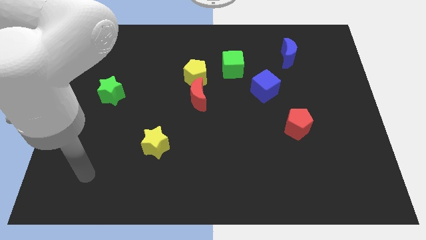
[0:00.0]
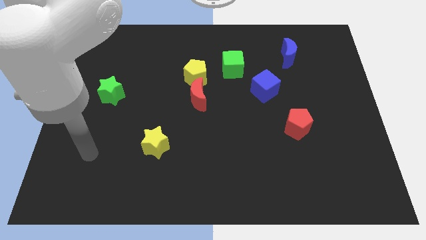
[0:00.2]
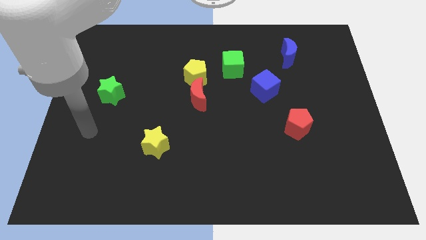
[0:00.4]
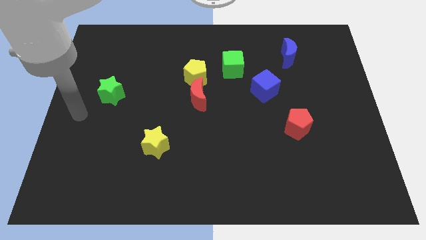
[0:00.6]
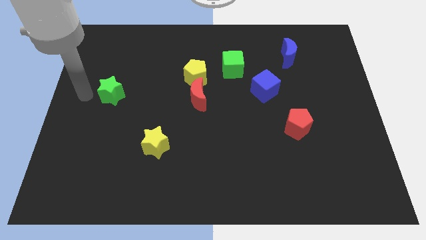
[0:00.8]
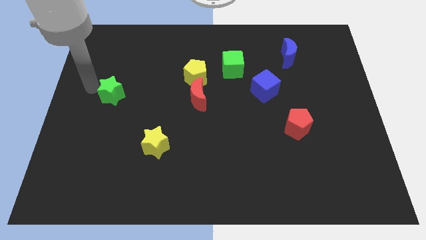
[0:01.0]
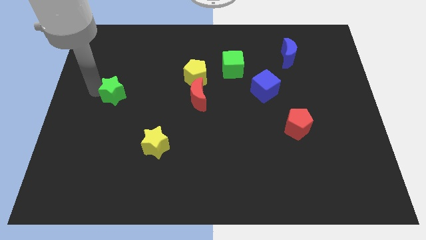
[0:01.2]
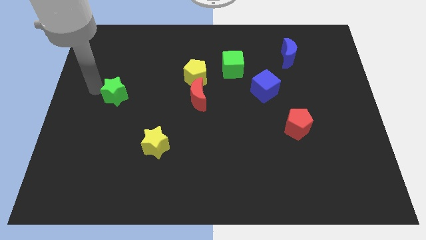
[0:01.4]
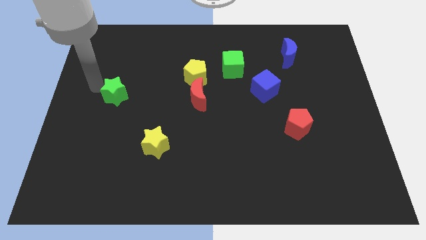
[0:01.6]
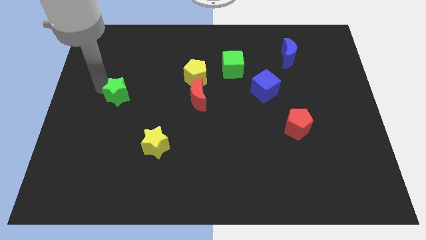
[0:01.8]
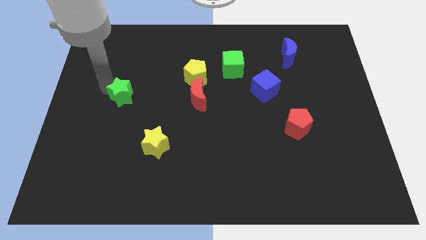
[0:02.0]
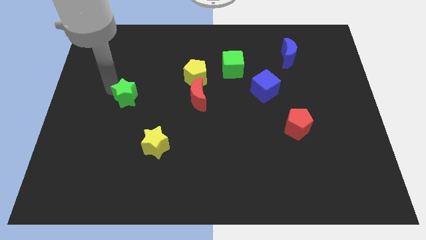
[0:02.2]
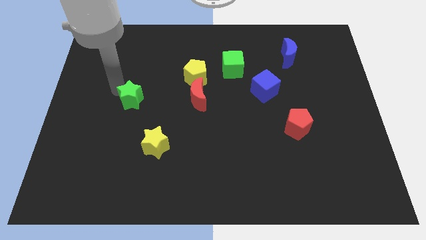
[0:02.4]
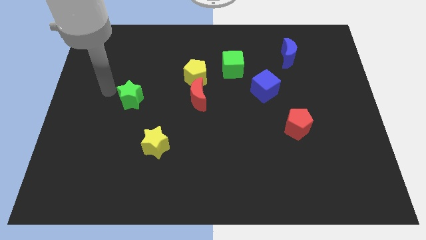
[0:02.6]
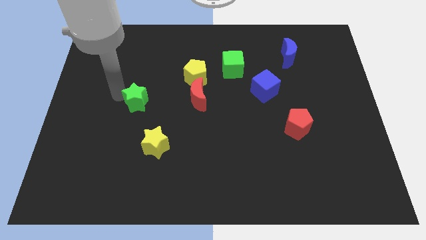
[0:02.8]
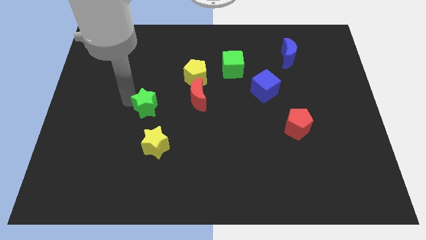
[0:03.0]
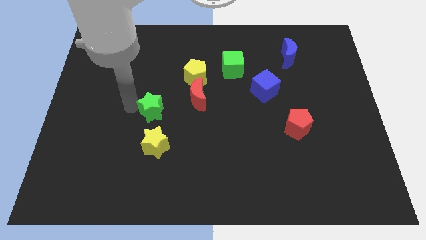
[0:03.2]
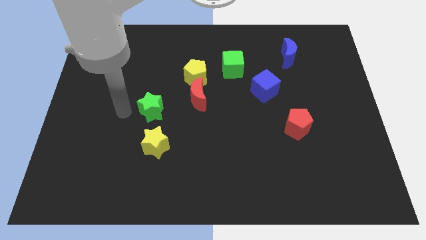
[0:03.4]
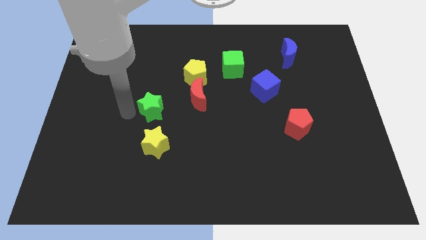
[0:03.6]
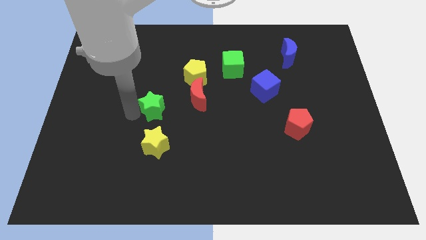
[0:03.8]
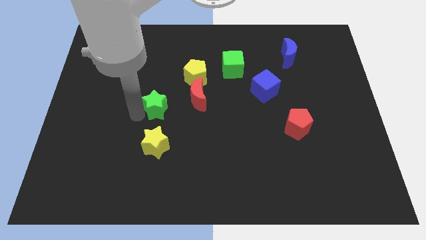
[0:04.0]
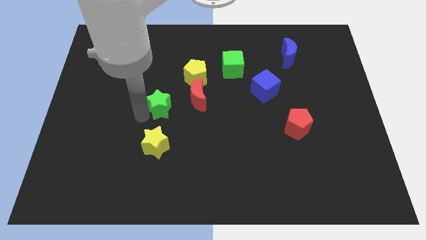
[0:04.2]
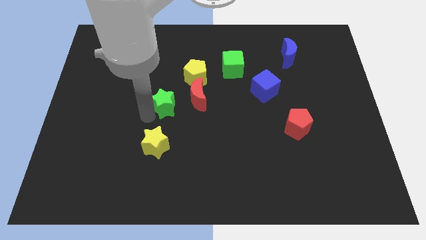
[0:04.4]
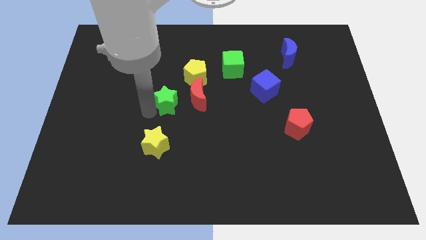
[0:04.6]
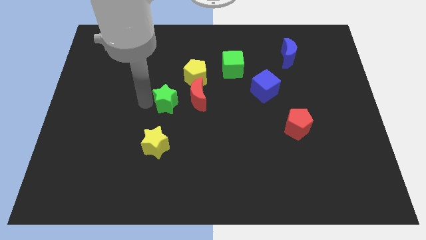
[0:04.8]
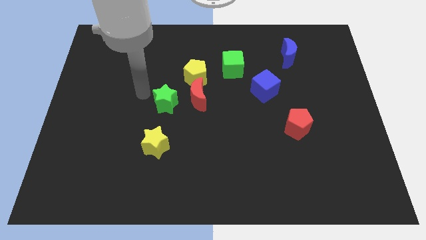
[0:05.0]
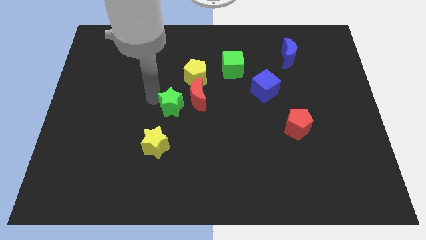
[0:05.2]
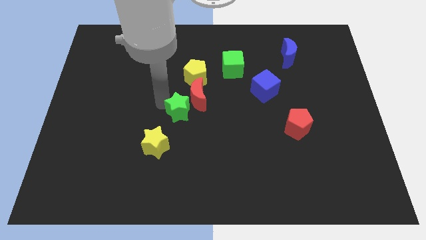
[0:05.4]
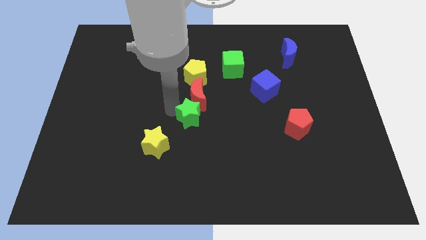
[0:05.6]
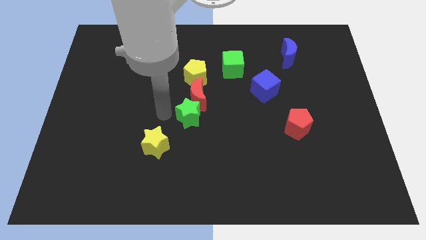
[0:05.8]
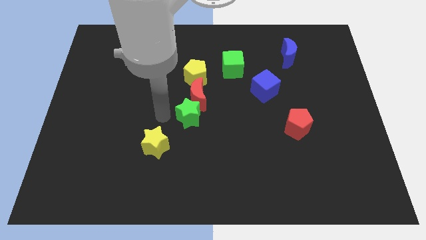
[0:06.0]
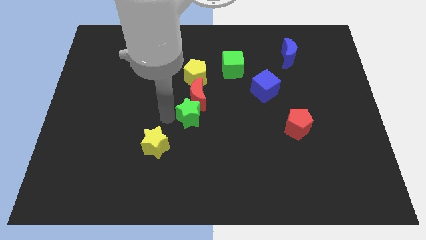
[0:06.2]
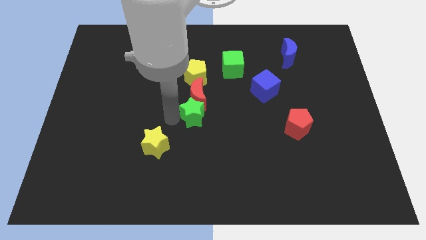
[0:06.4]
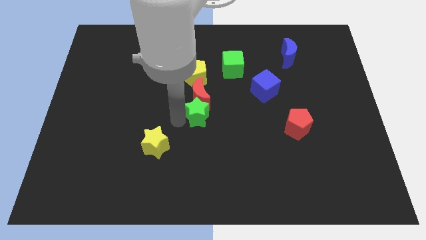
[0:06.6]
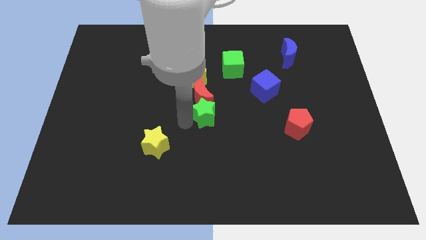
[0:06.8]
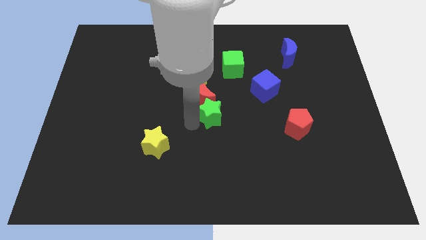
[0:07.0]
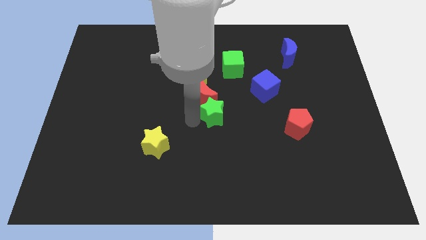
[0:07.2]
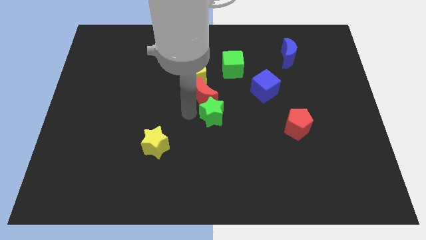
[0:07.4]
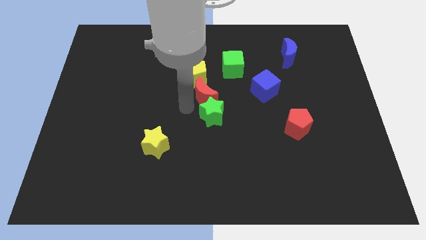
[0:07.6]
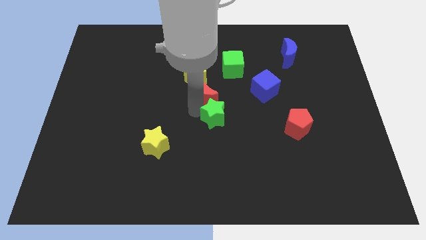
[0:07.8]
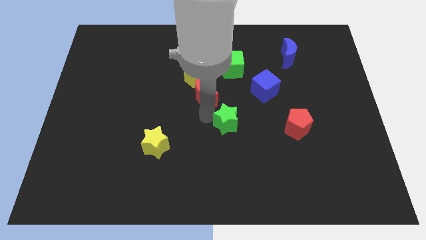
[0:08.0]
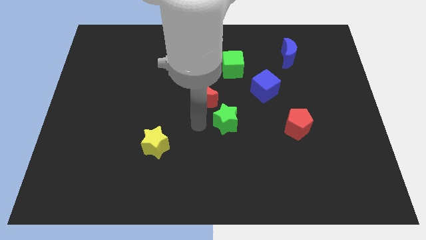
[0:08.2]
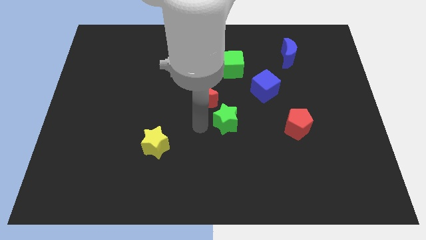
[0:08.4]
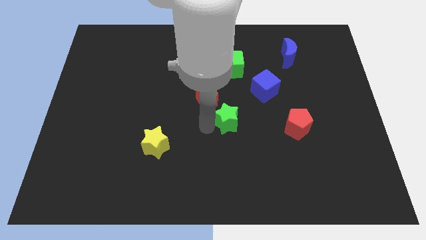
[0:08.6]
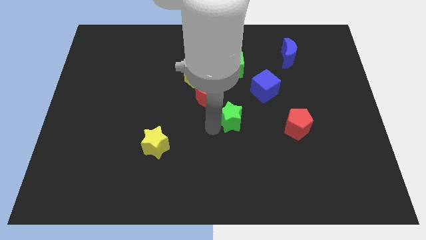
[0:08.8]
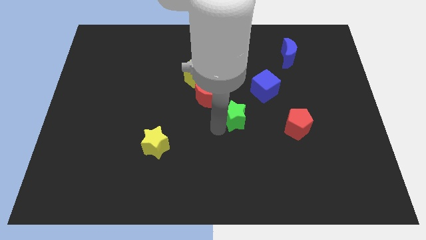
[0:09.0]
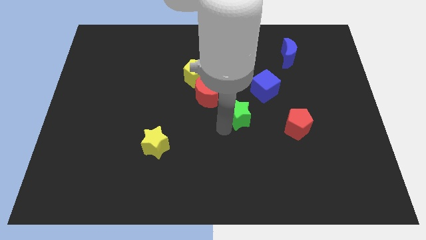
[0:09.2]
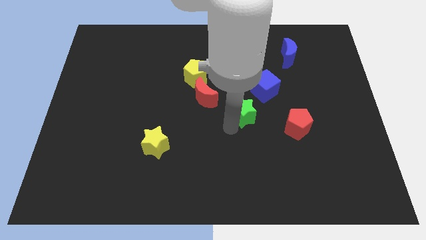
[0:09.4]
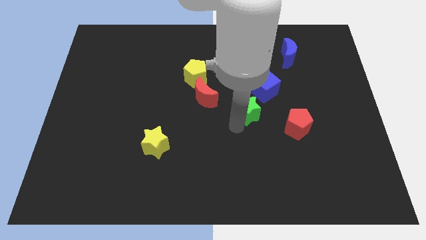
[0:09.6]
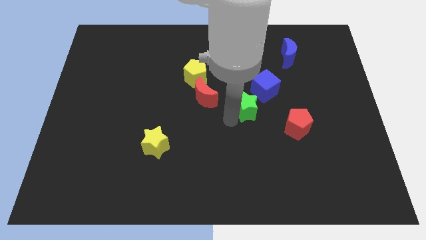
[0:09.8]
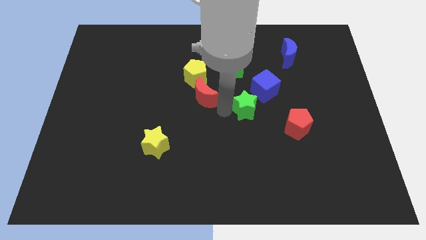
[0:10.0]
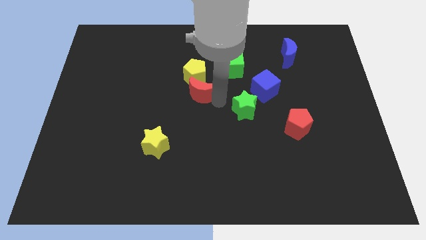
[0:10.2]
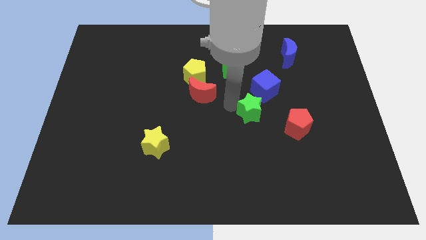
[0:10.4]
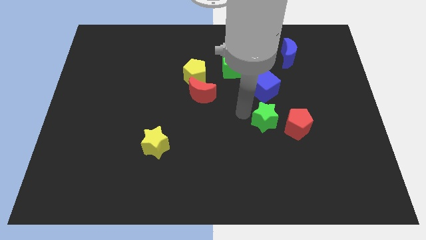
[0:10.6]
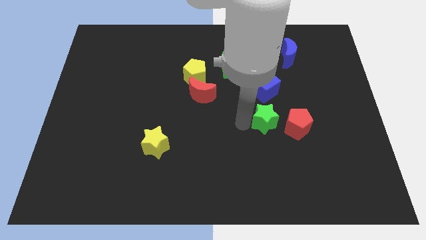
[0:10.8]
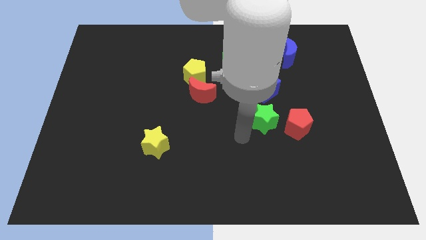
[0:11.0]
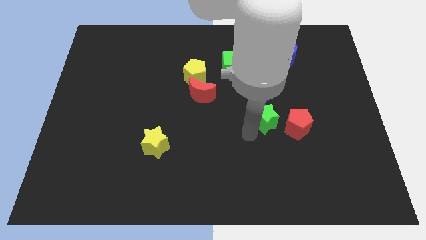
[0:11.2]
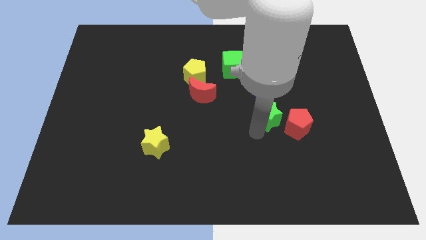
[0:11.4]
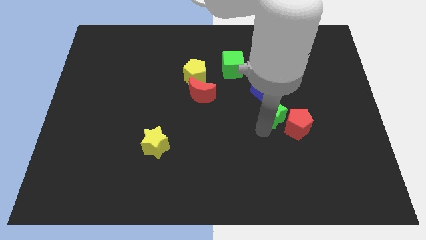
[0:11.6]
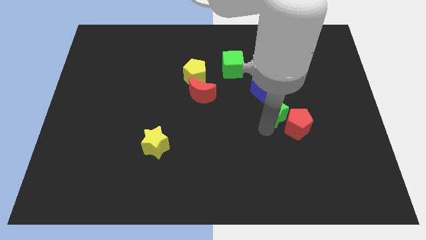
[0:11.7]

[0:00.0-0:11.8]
push the green star to the bottom right of the blue cube
